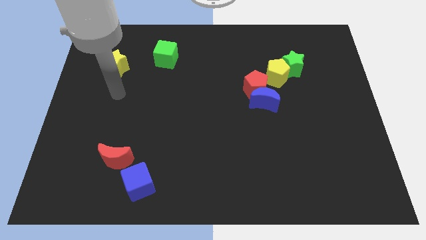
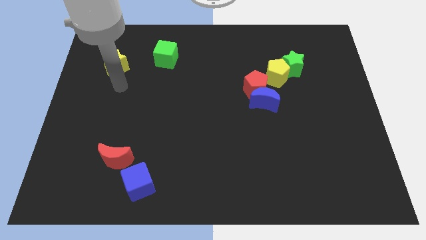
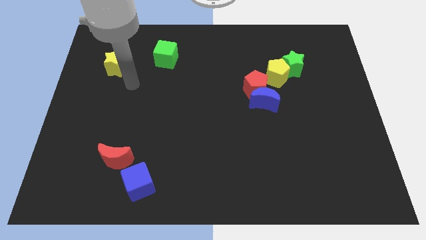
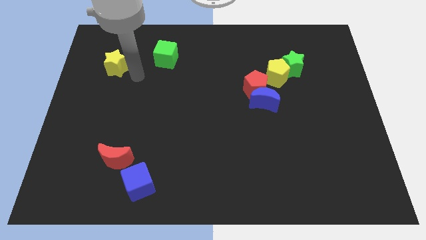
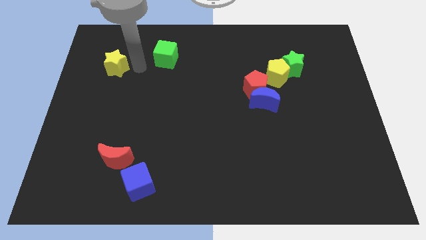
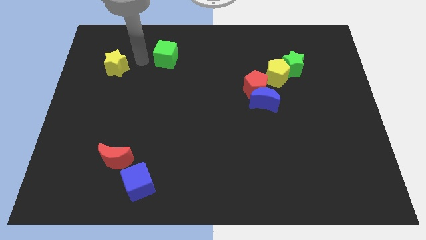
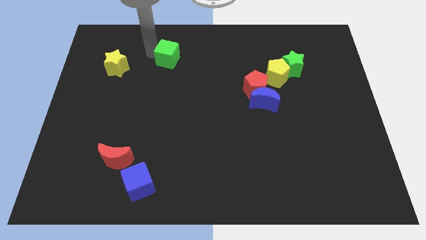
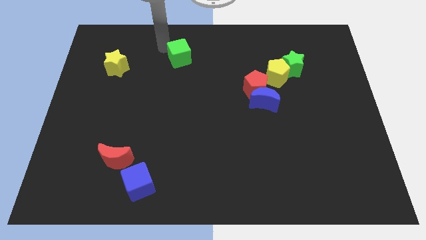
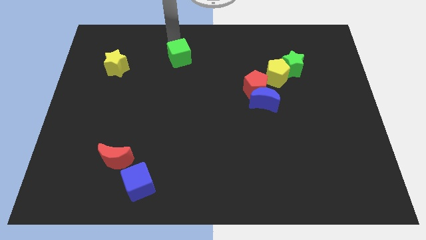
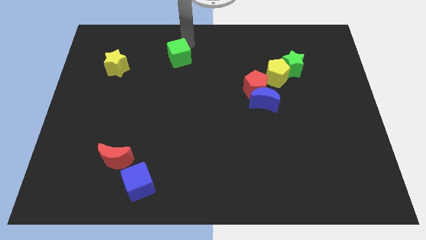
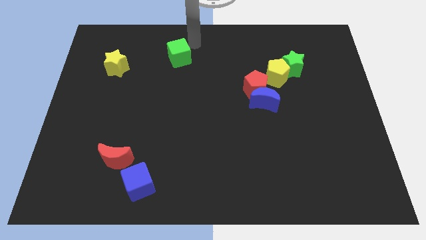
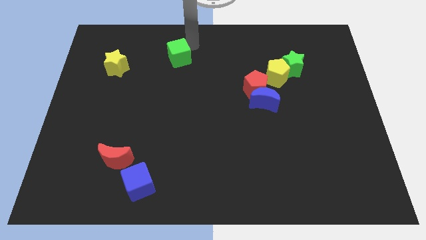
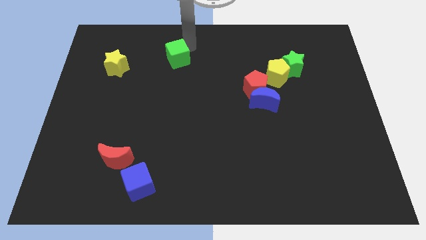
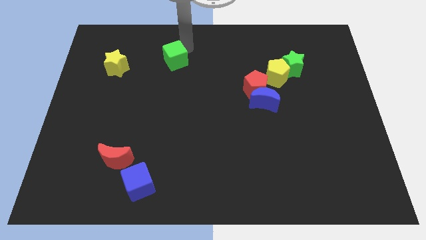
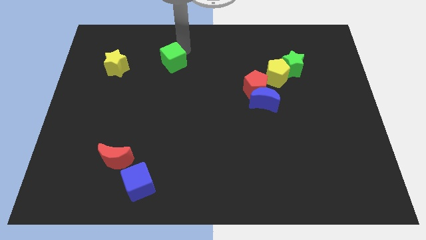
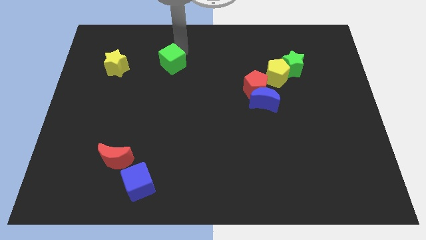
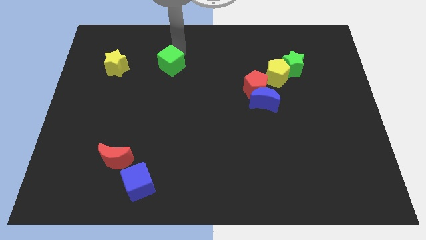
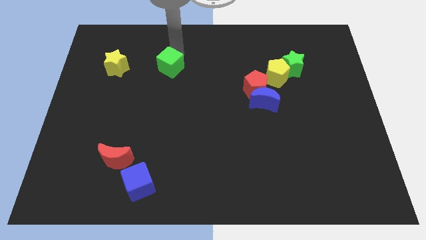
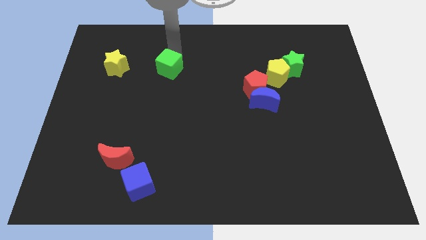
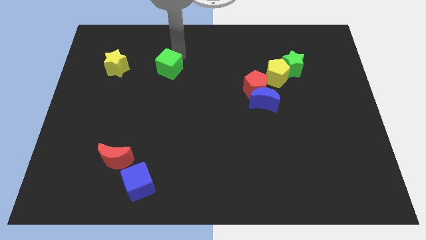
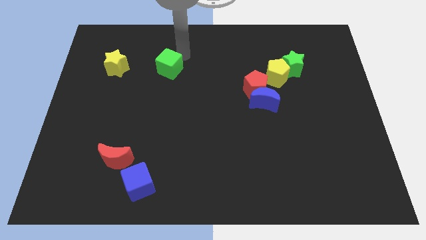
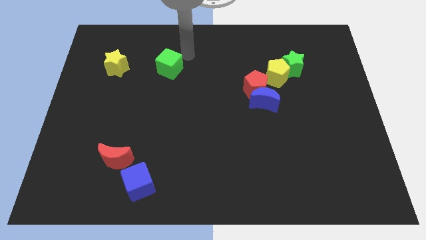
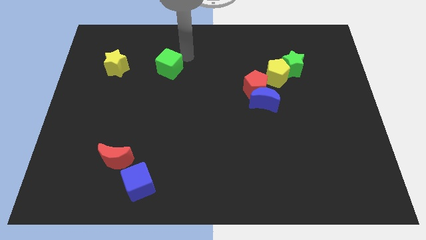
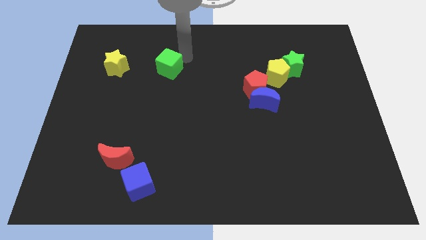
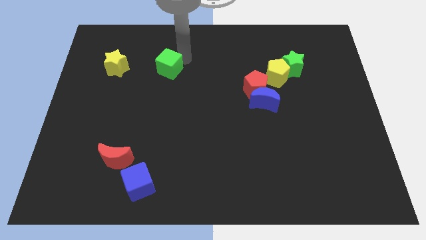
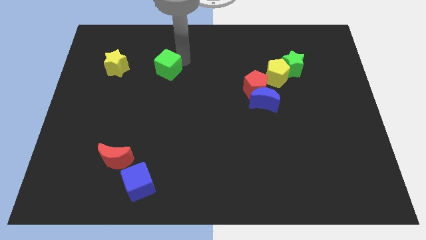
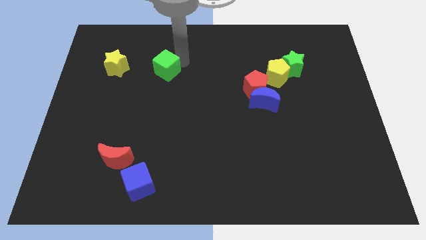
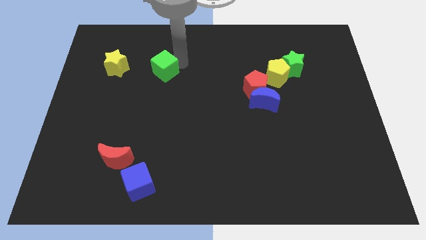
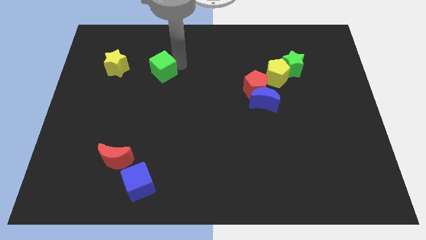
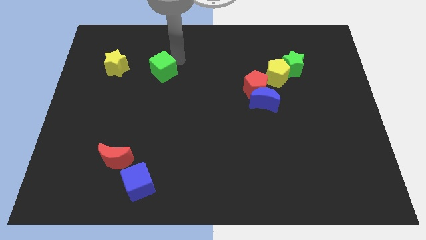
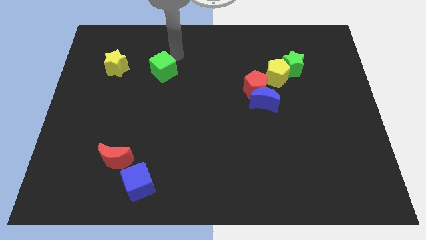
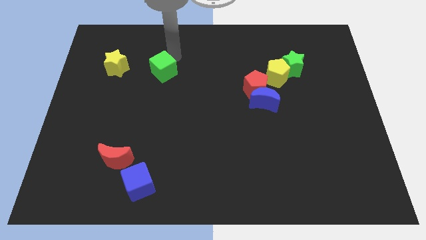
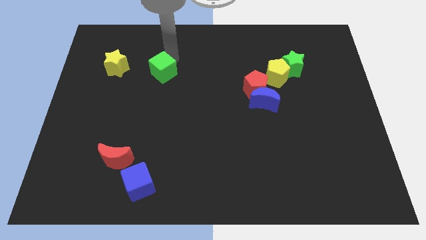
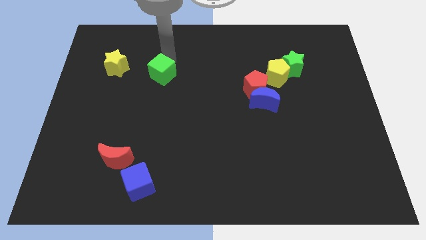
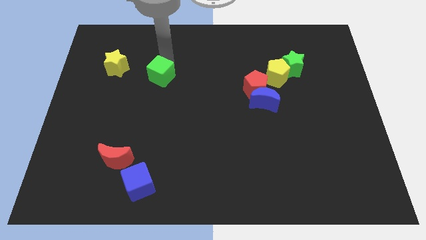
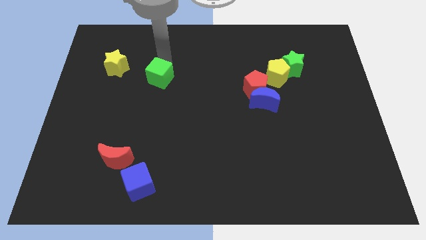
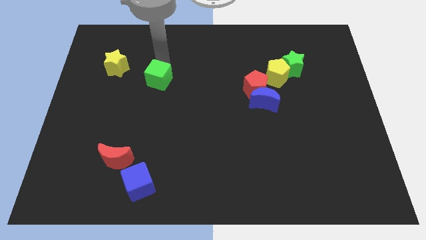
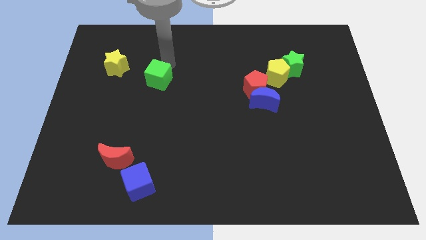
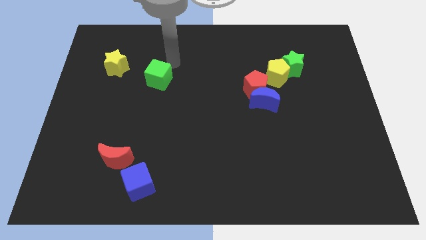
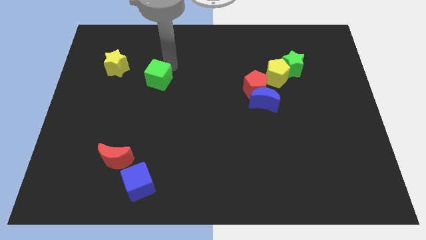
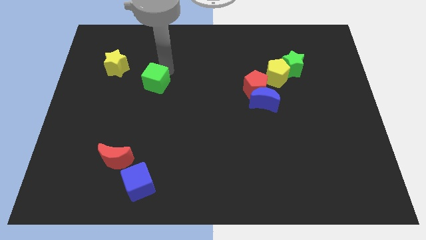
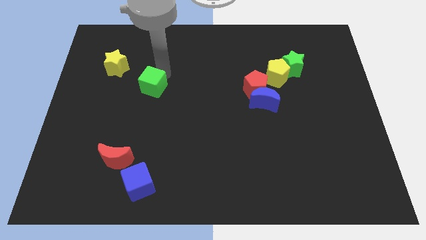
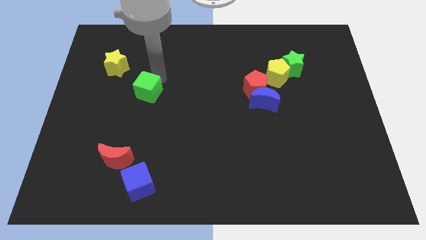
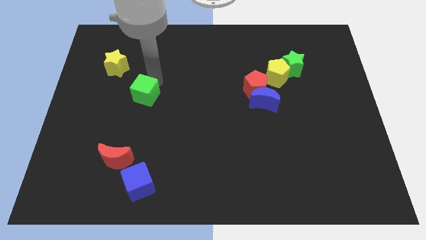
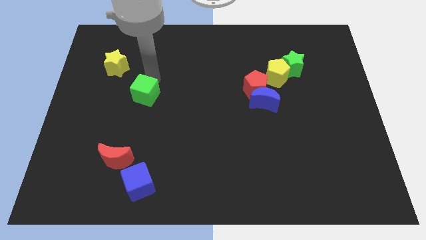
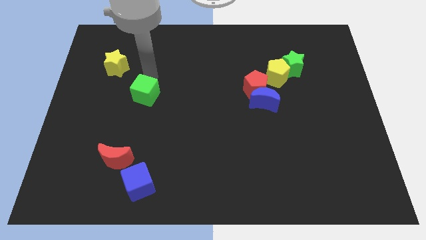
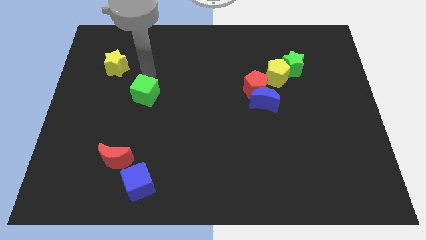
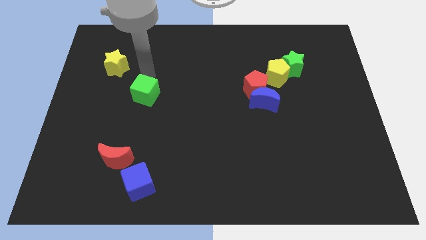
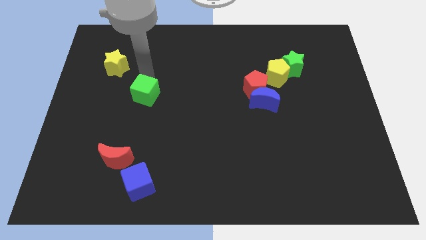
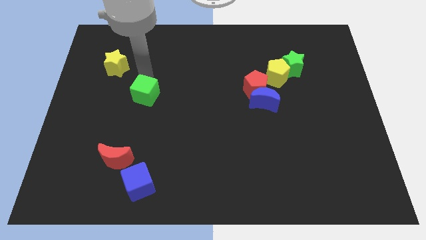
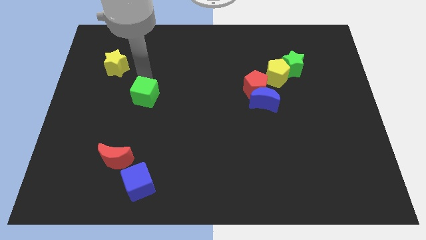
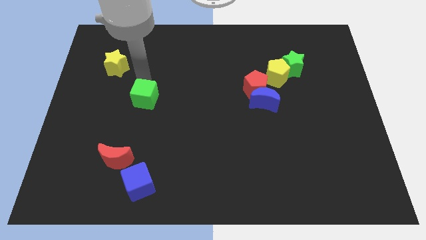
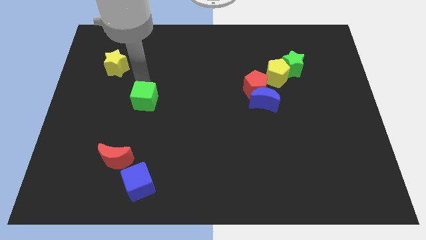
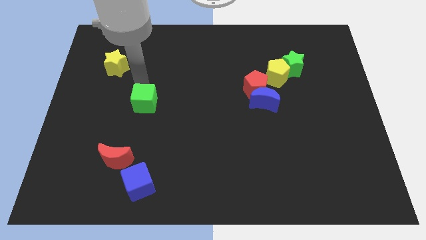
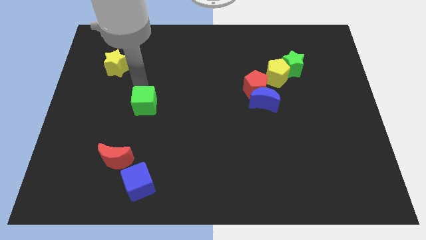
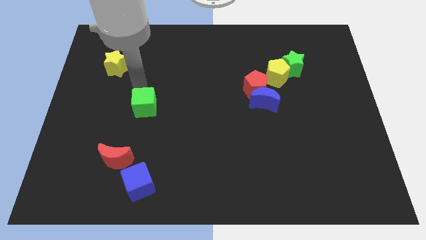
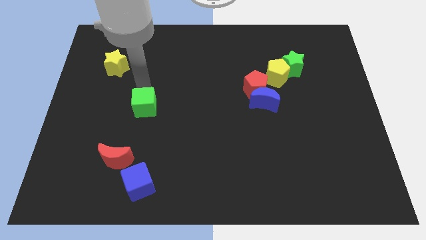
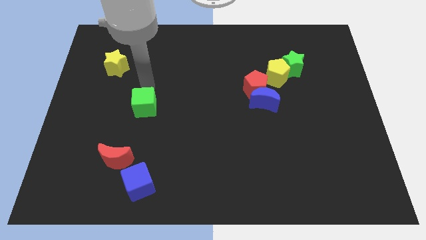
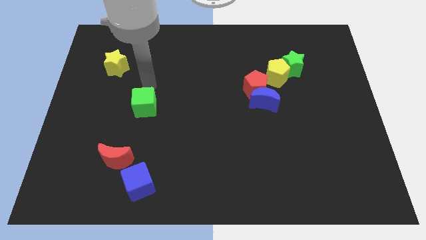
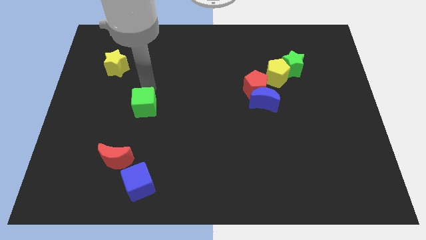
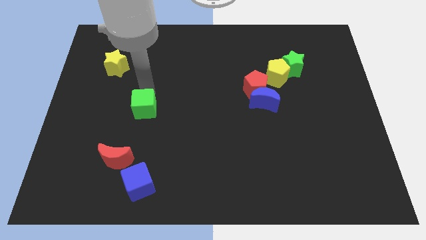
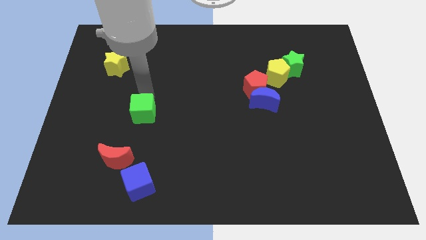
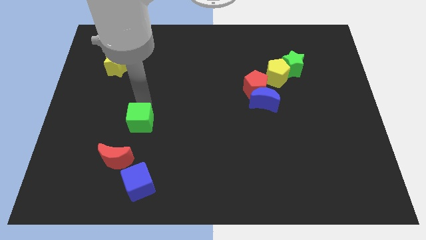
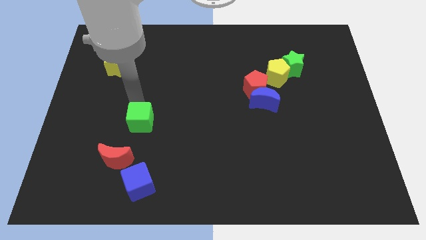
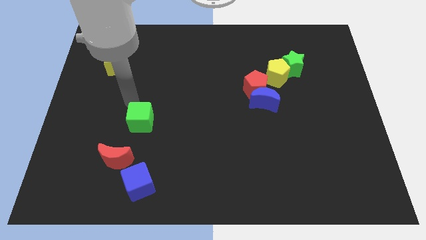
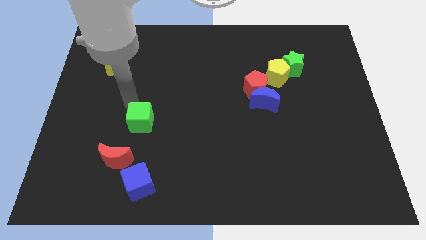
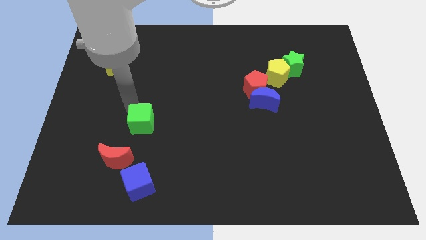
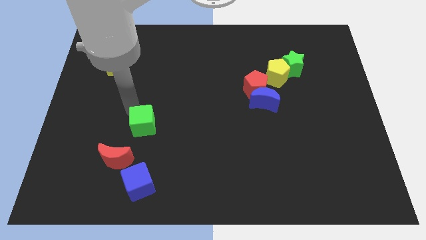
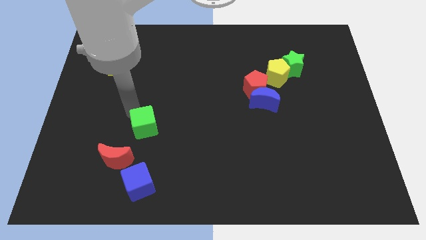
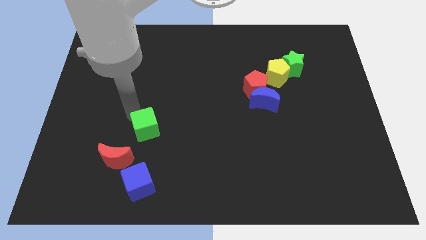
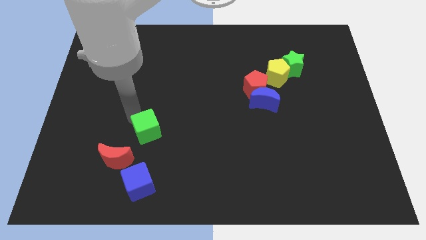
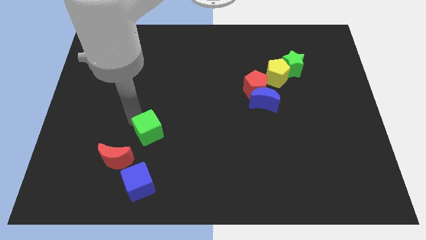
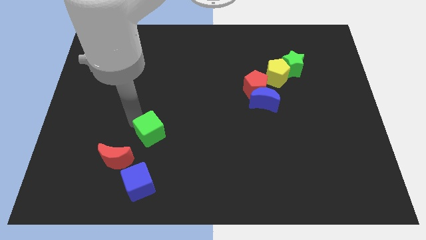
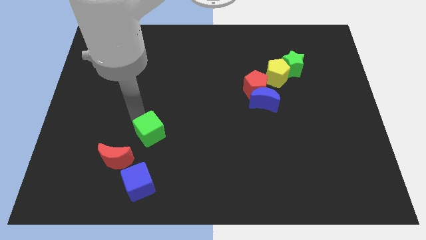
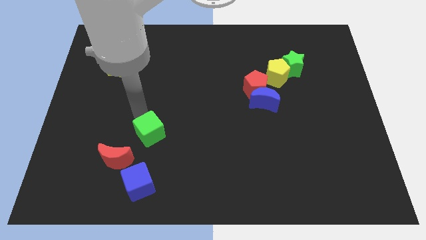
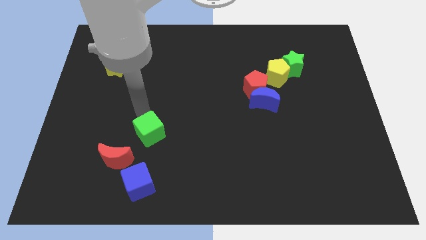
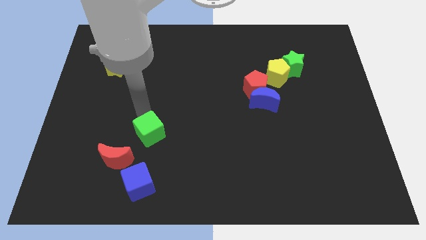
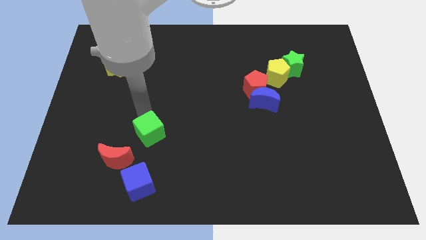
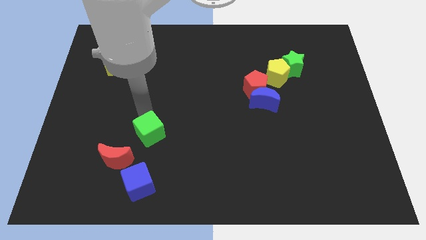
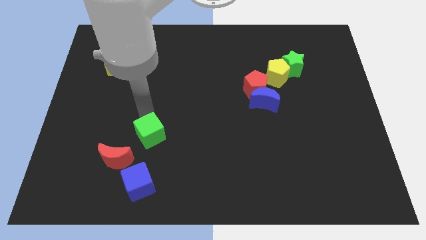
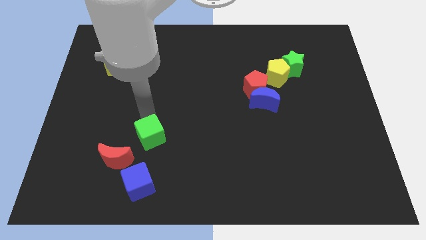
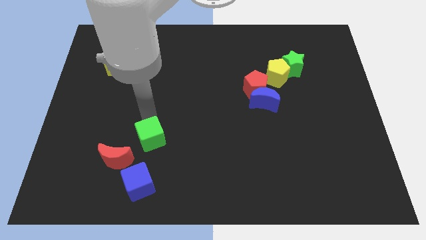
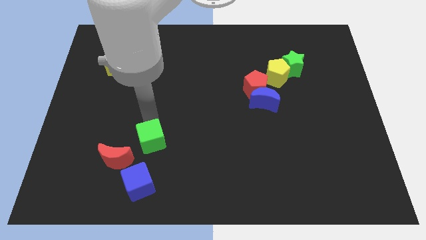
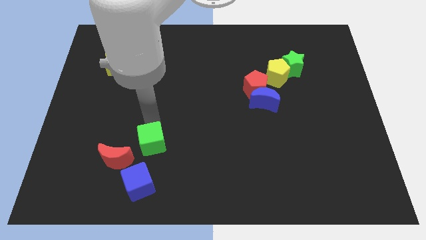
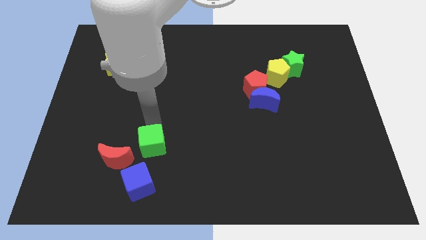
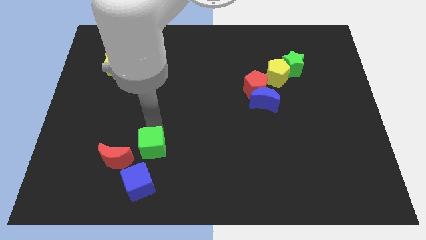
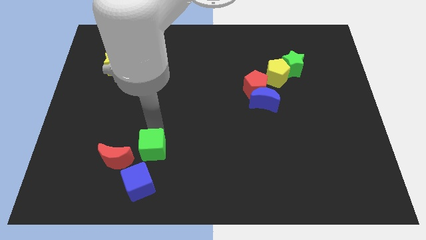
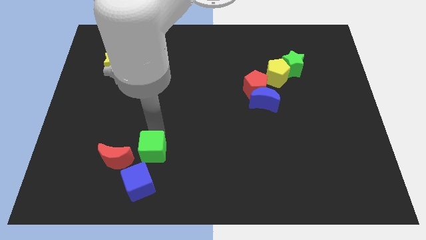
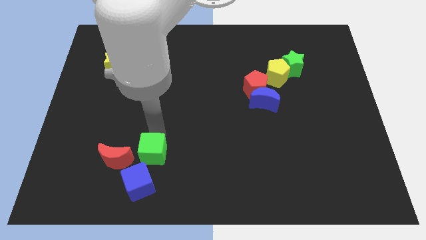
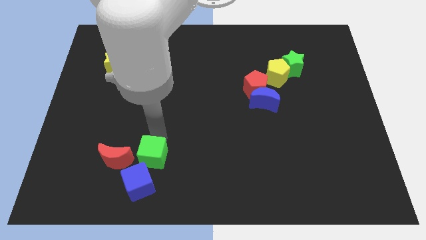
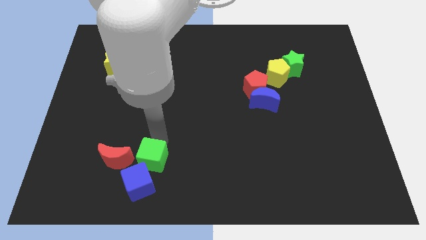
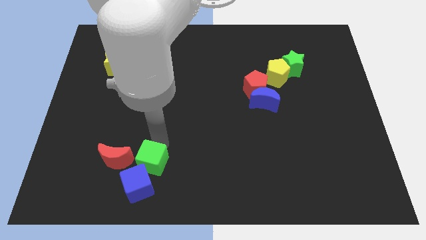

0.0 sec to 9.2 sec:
push the green cube close to the blue cube
